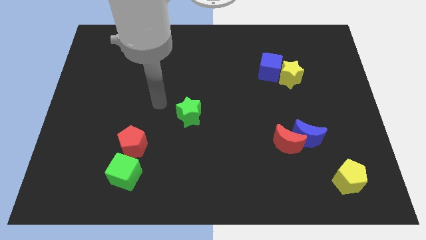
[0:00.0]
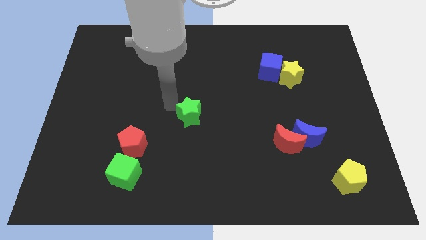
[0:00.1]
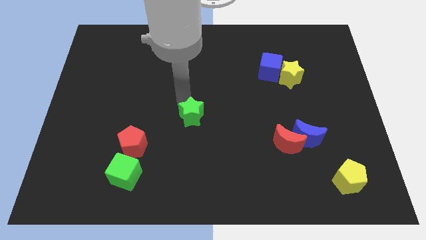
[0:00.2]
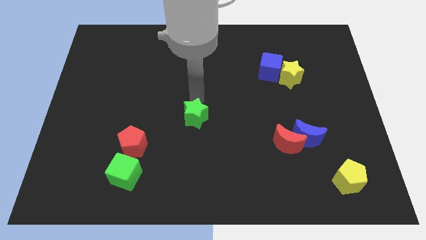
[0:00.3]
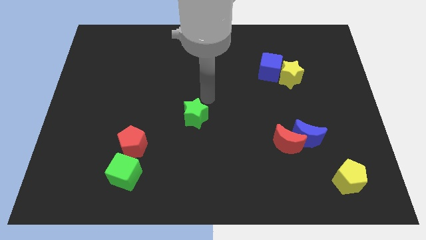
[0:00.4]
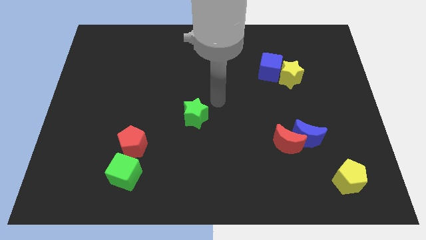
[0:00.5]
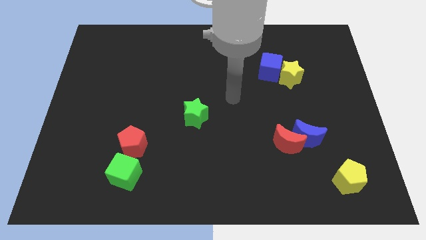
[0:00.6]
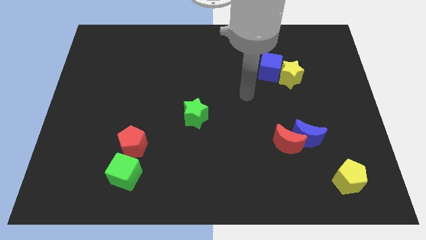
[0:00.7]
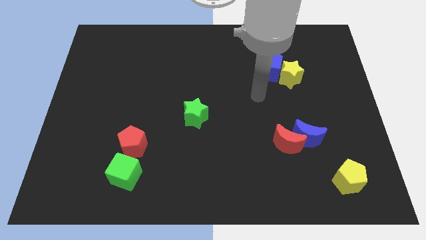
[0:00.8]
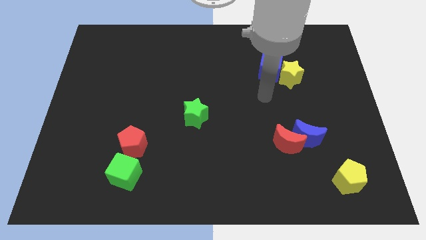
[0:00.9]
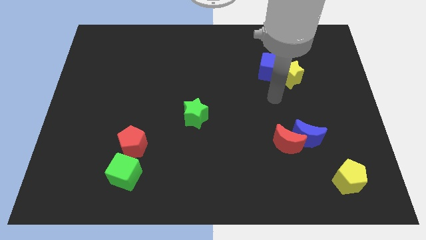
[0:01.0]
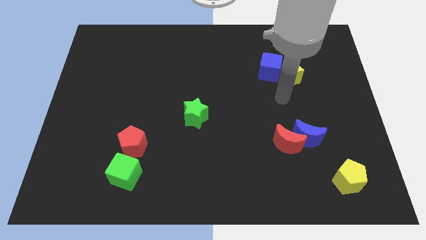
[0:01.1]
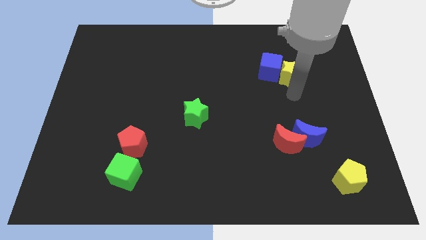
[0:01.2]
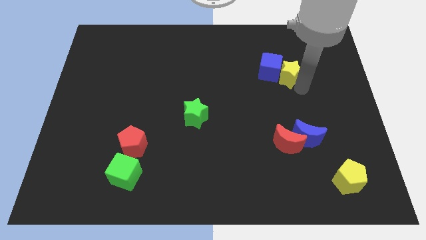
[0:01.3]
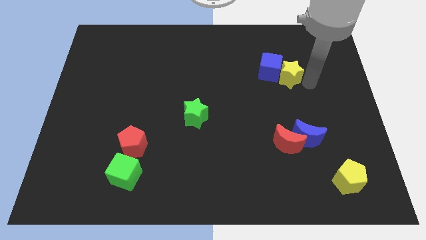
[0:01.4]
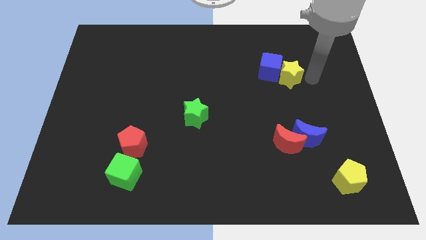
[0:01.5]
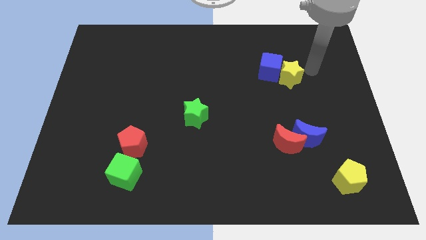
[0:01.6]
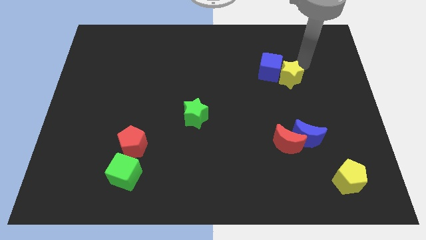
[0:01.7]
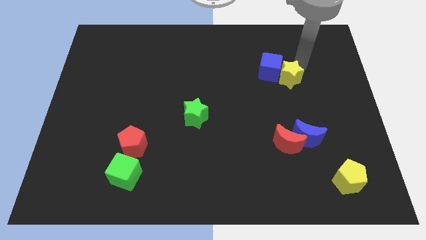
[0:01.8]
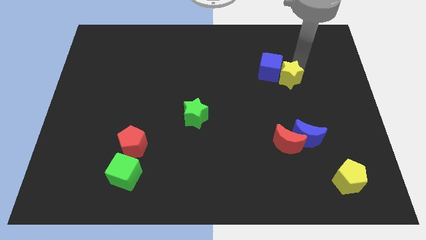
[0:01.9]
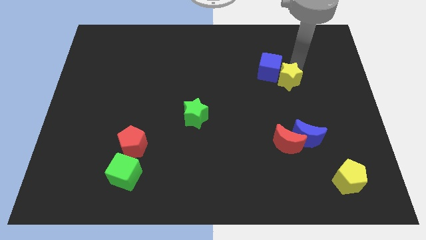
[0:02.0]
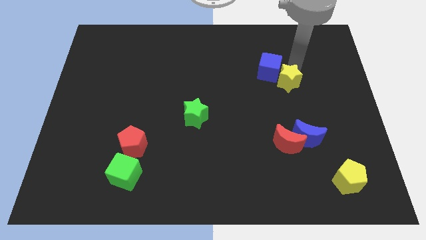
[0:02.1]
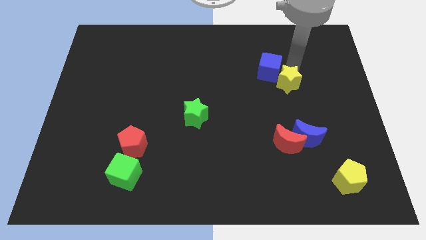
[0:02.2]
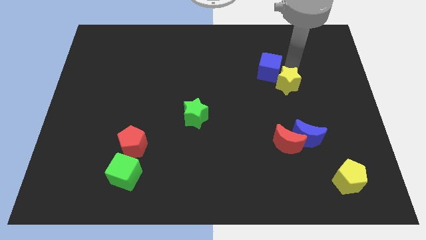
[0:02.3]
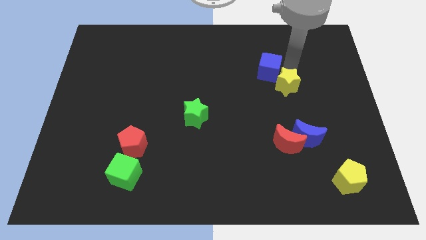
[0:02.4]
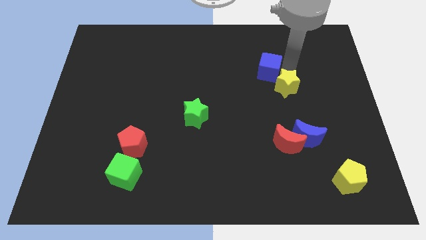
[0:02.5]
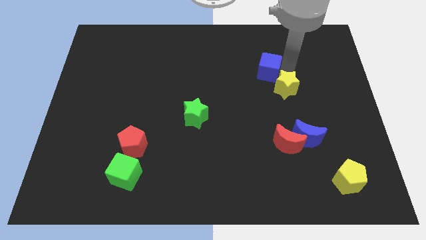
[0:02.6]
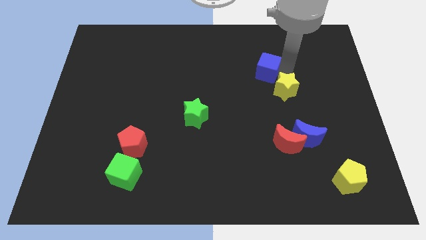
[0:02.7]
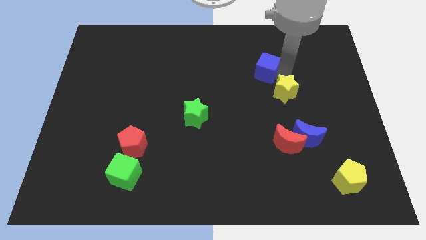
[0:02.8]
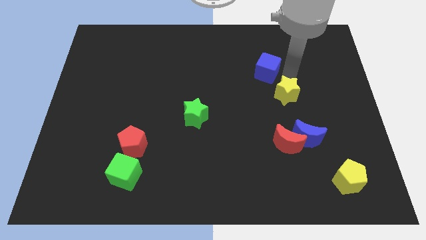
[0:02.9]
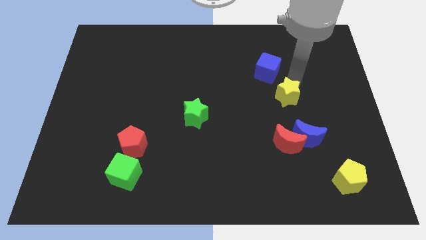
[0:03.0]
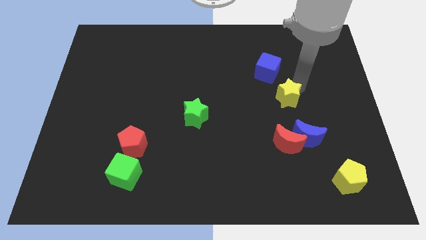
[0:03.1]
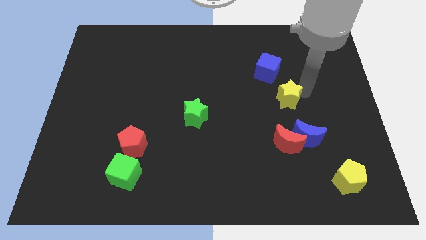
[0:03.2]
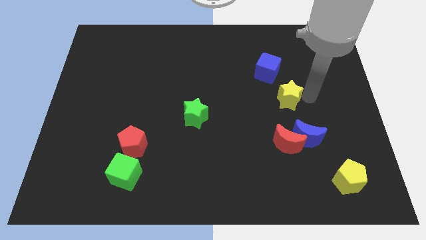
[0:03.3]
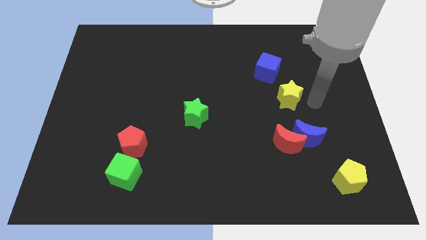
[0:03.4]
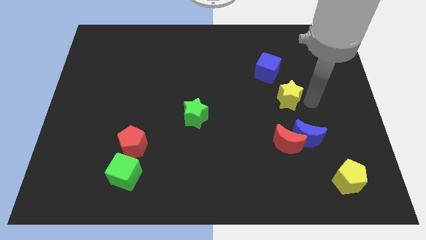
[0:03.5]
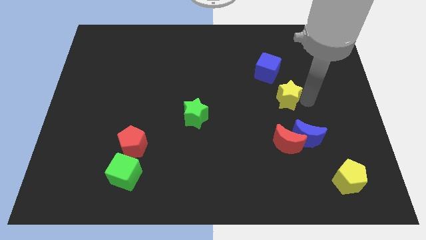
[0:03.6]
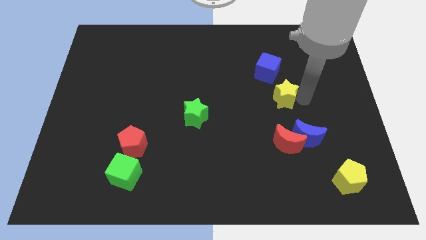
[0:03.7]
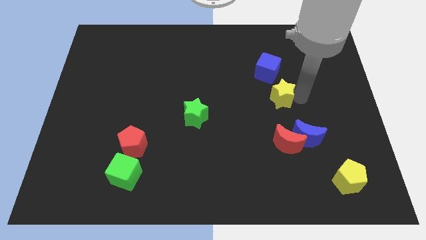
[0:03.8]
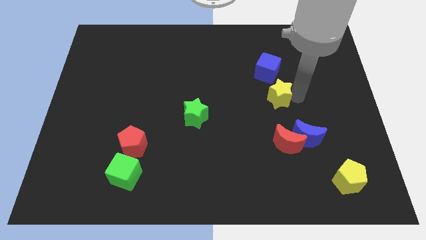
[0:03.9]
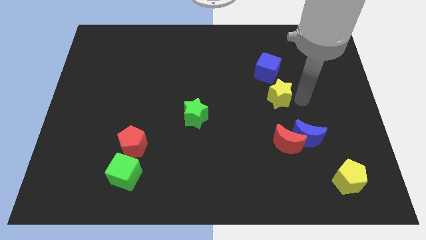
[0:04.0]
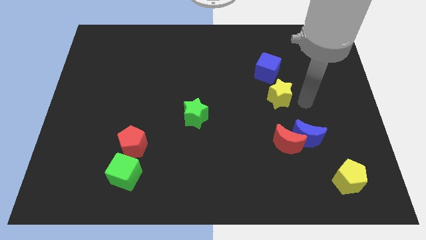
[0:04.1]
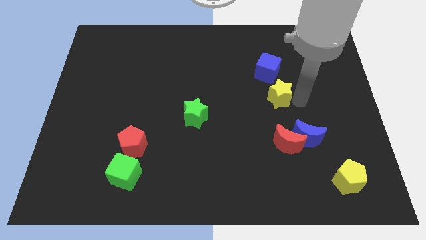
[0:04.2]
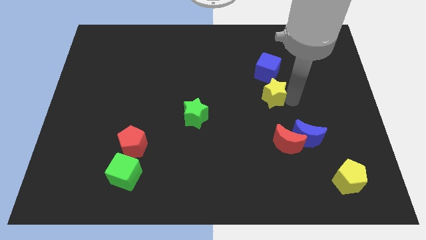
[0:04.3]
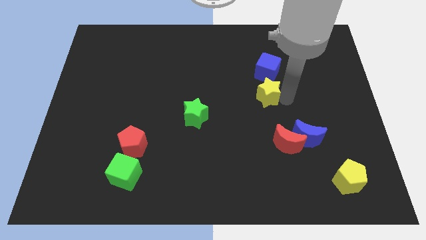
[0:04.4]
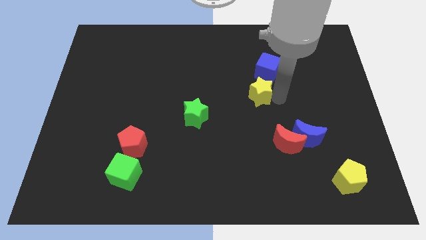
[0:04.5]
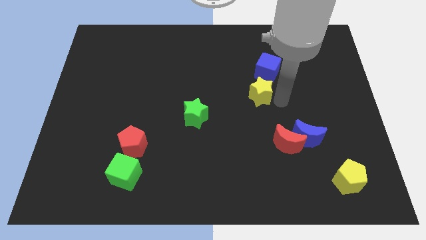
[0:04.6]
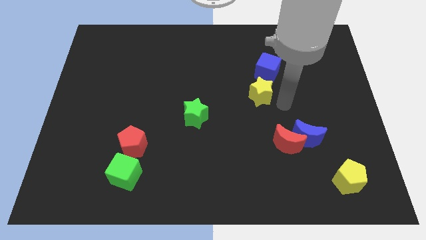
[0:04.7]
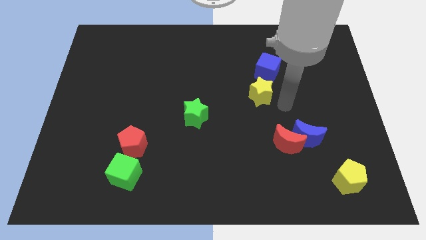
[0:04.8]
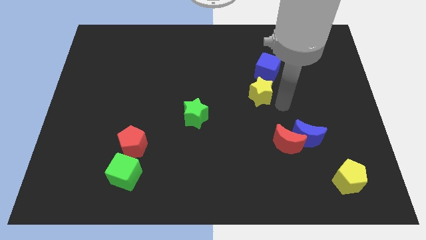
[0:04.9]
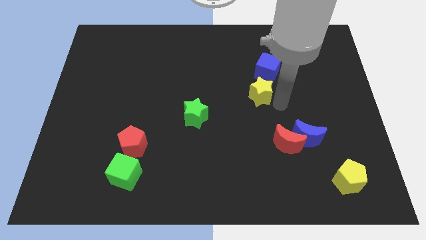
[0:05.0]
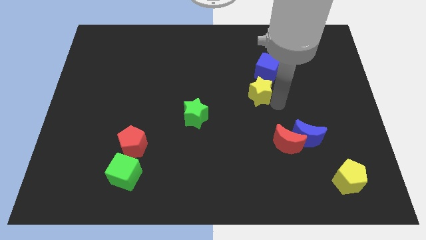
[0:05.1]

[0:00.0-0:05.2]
slide the yellow star left a bit

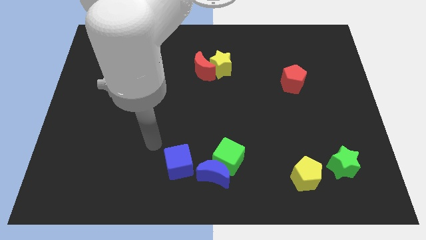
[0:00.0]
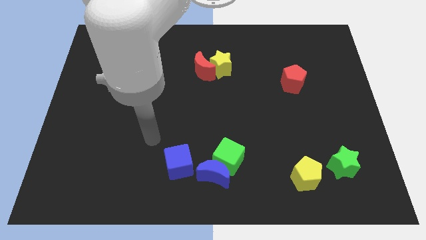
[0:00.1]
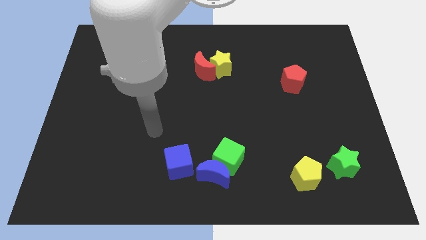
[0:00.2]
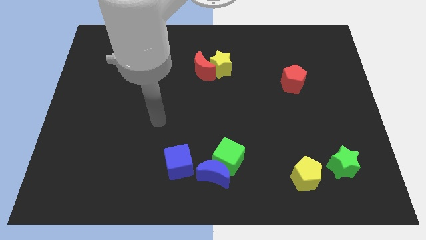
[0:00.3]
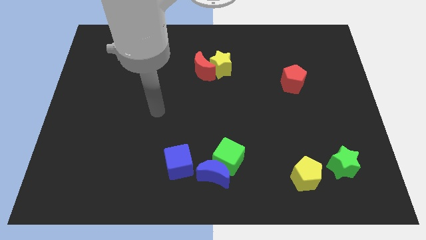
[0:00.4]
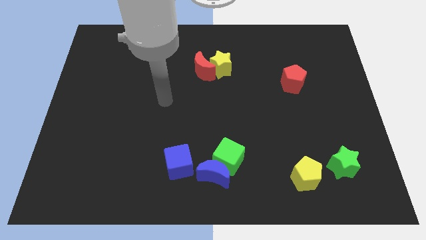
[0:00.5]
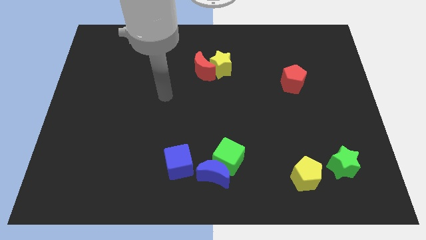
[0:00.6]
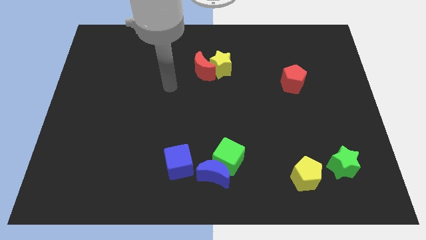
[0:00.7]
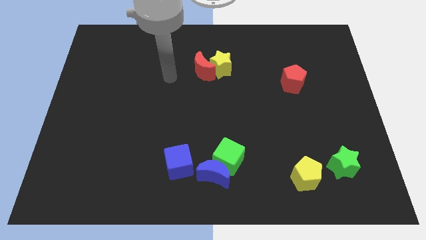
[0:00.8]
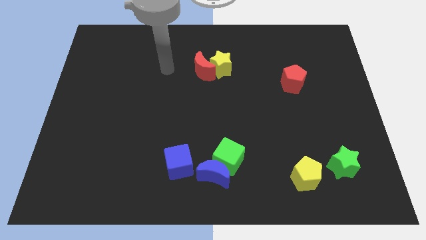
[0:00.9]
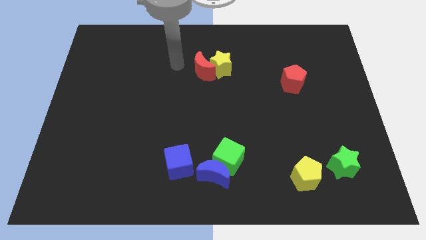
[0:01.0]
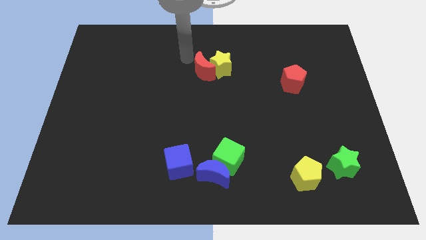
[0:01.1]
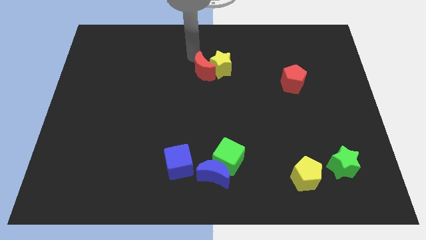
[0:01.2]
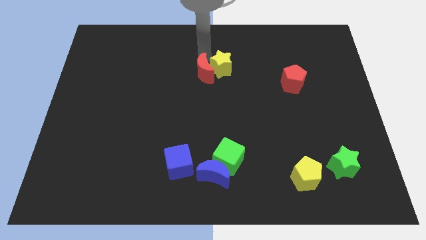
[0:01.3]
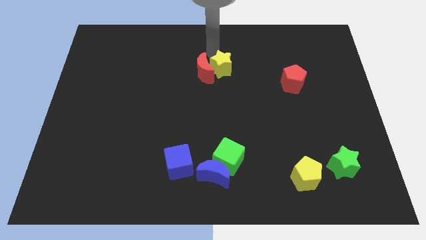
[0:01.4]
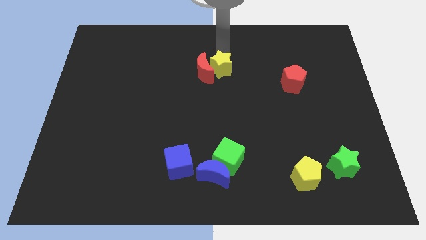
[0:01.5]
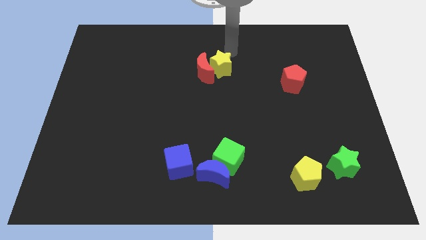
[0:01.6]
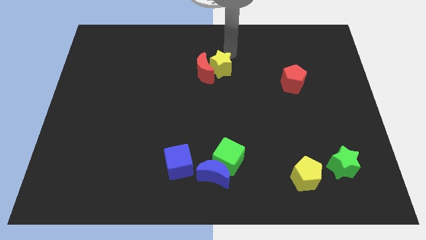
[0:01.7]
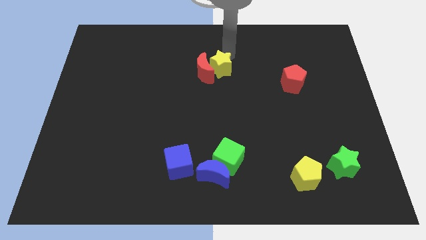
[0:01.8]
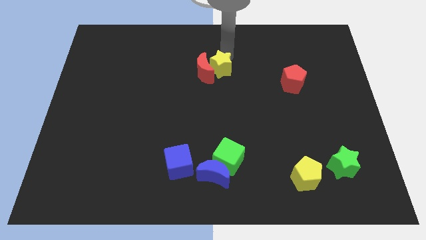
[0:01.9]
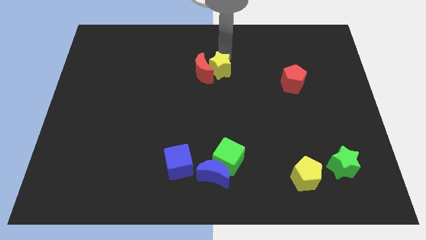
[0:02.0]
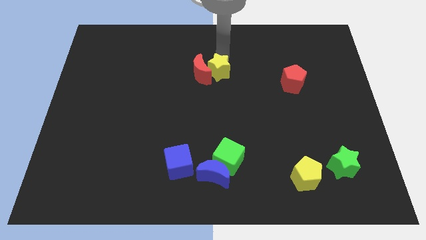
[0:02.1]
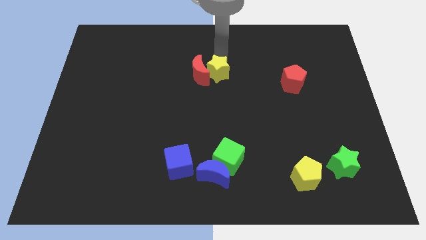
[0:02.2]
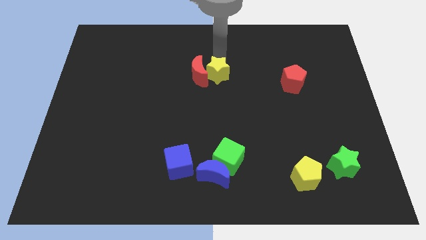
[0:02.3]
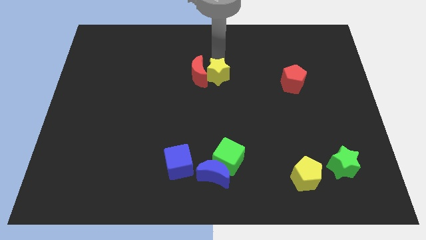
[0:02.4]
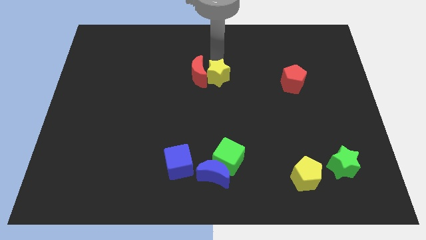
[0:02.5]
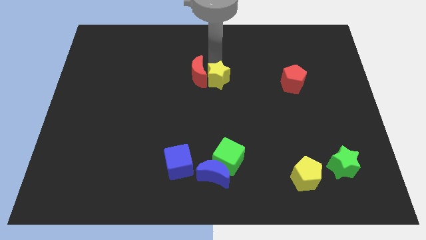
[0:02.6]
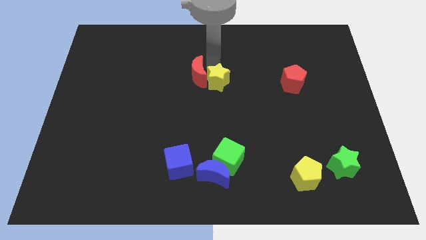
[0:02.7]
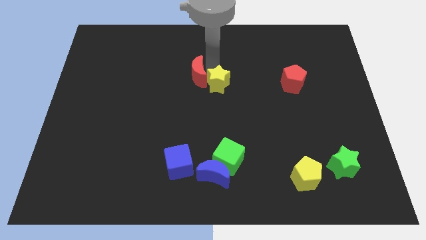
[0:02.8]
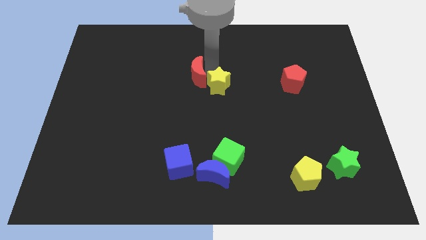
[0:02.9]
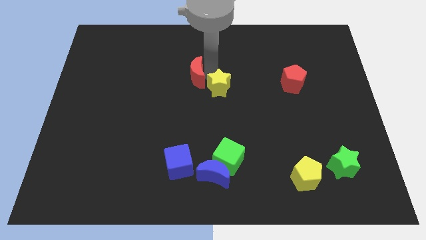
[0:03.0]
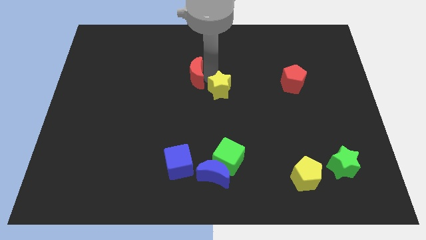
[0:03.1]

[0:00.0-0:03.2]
move the yellow star slightly downwards
